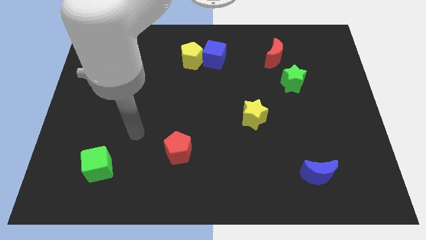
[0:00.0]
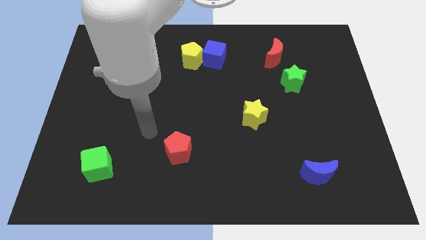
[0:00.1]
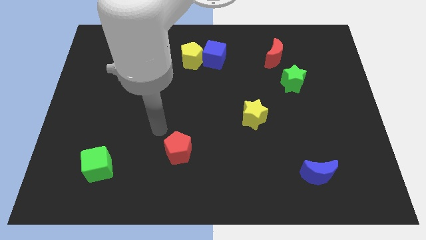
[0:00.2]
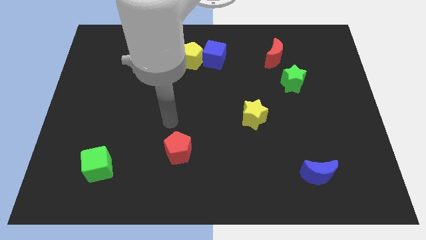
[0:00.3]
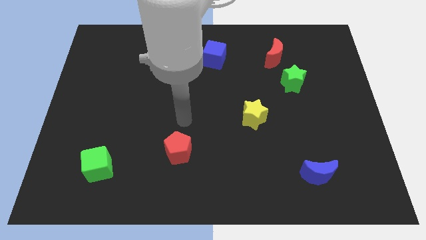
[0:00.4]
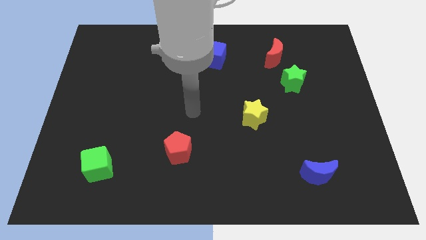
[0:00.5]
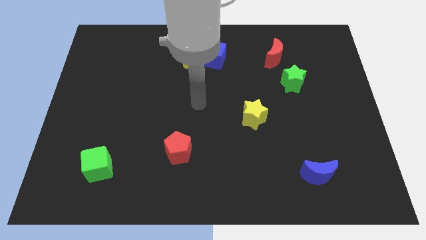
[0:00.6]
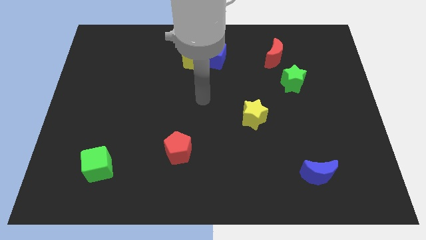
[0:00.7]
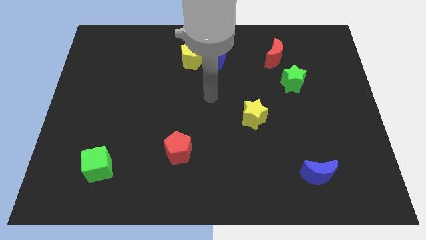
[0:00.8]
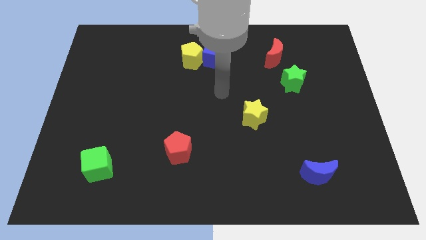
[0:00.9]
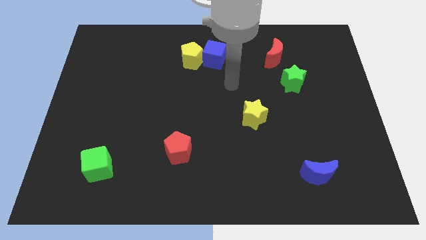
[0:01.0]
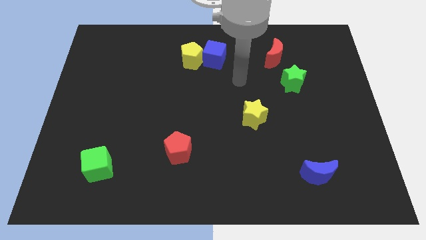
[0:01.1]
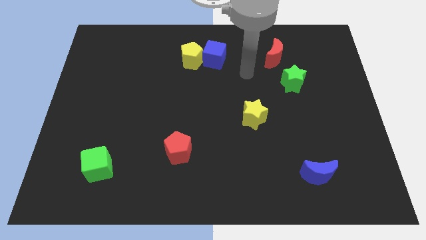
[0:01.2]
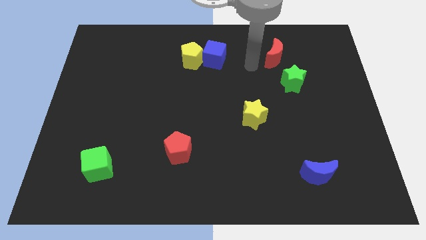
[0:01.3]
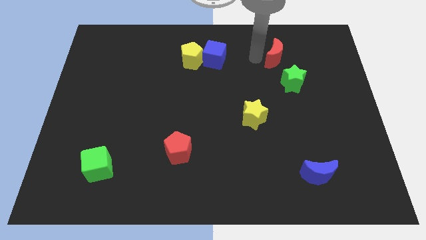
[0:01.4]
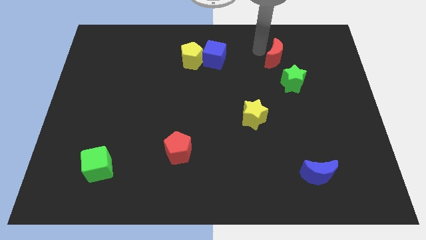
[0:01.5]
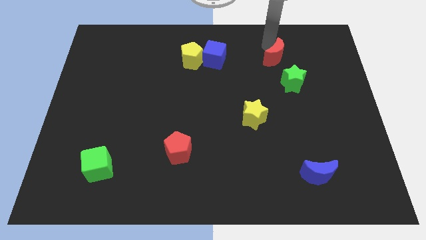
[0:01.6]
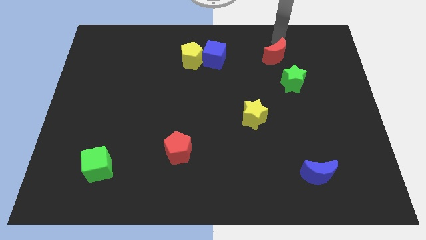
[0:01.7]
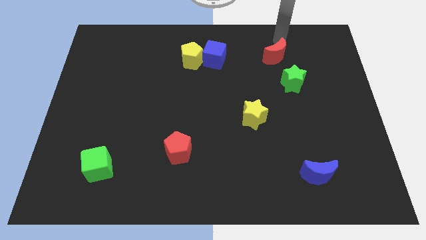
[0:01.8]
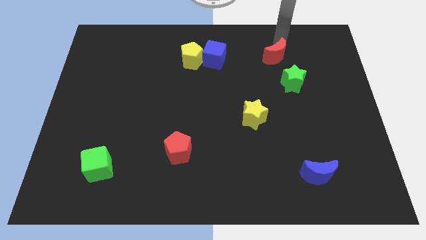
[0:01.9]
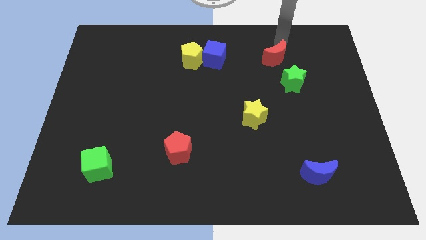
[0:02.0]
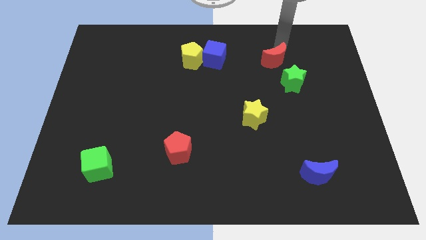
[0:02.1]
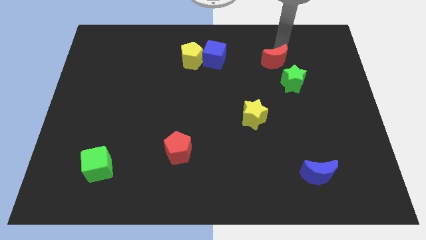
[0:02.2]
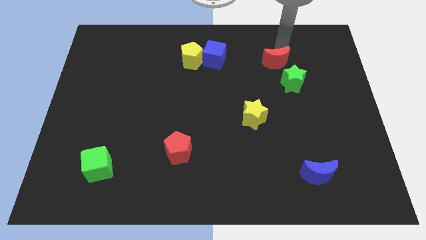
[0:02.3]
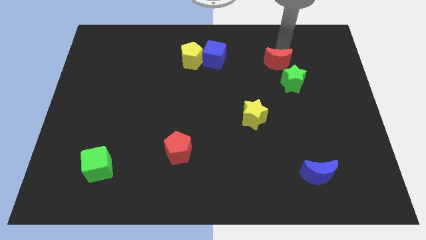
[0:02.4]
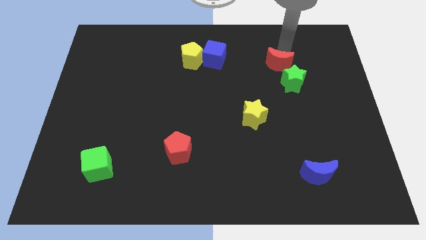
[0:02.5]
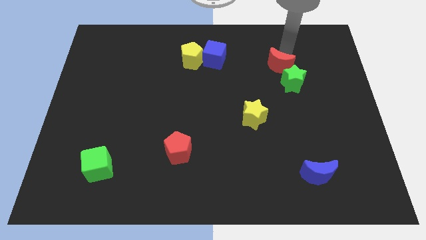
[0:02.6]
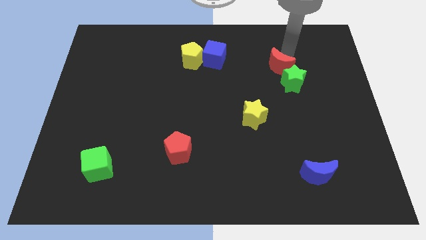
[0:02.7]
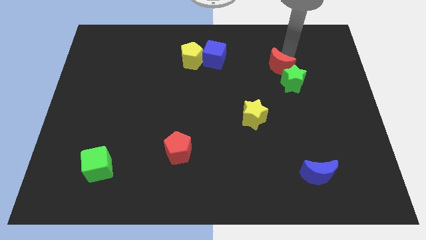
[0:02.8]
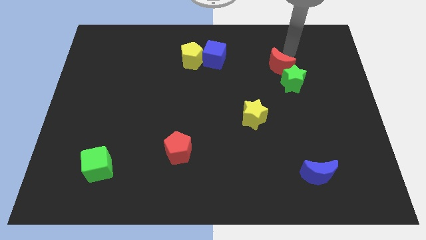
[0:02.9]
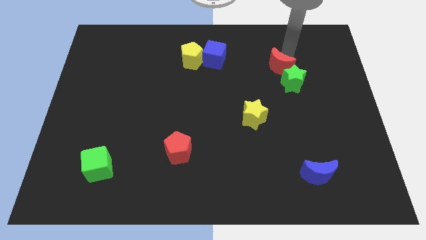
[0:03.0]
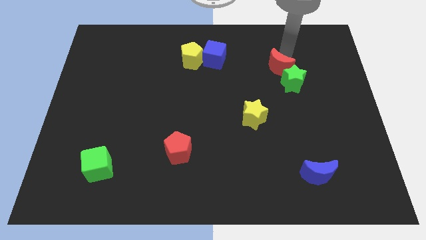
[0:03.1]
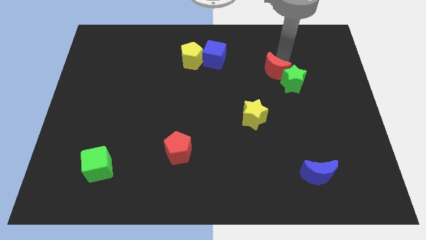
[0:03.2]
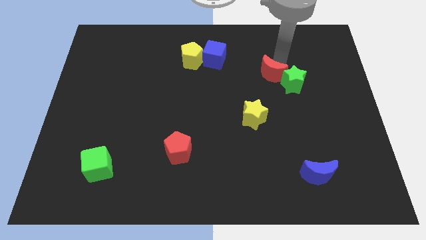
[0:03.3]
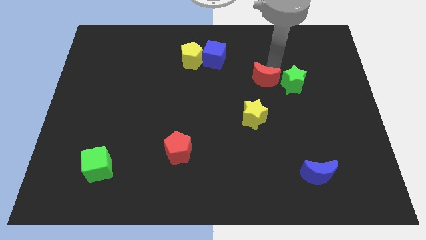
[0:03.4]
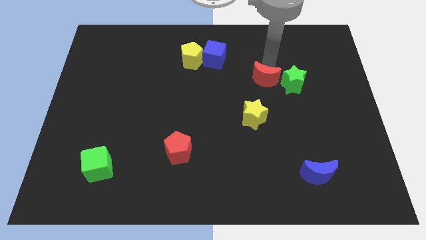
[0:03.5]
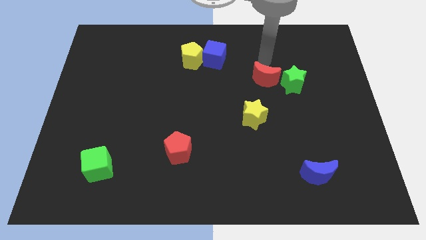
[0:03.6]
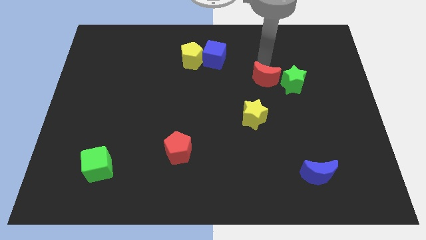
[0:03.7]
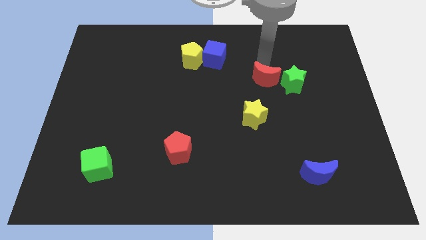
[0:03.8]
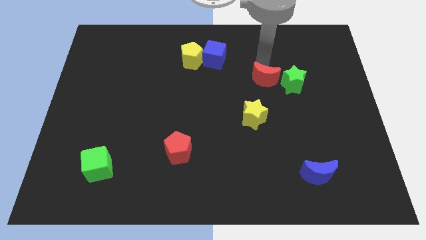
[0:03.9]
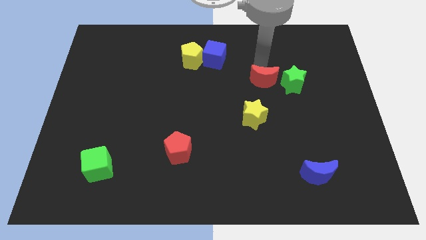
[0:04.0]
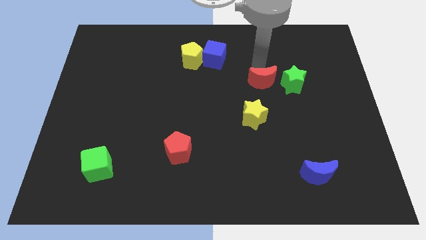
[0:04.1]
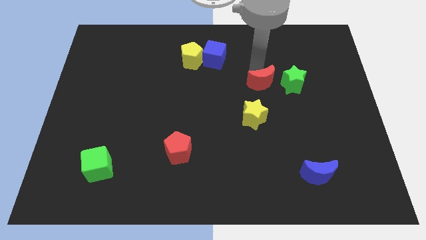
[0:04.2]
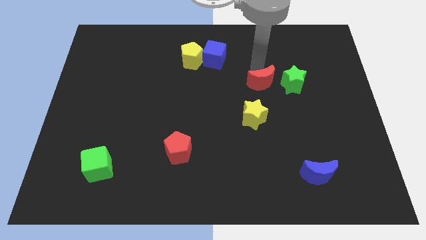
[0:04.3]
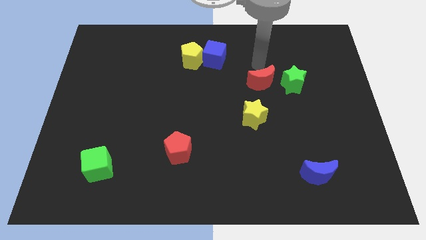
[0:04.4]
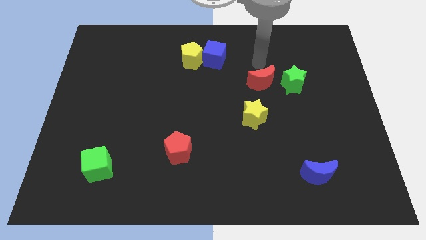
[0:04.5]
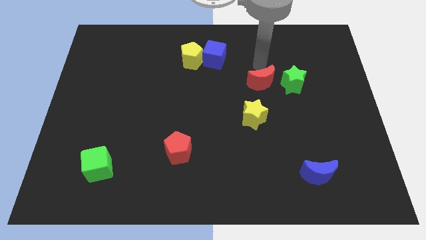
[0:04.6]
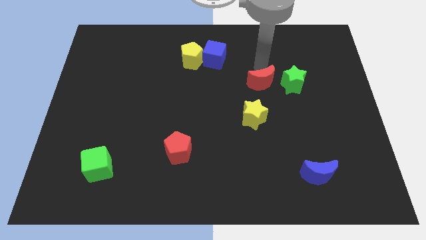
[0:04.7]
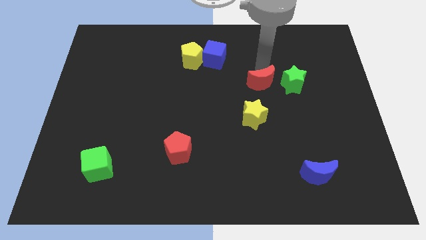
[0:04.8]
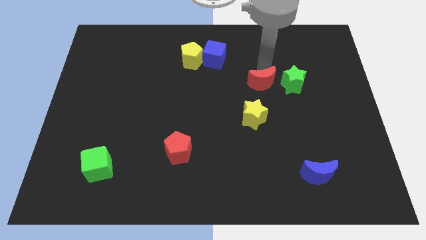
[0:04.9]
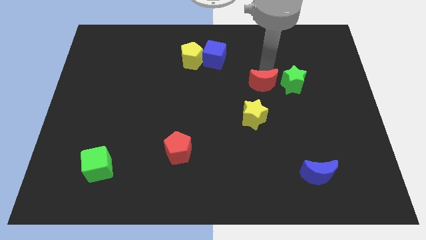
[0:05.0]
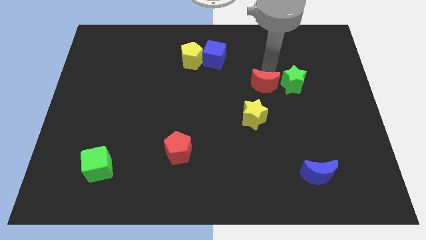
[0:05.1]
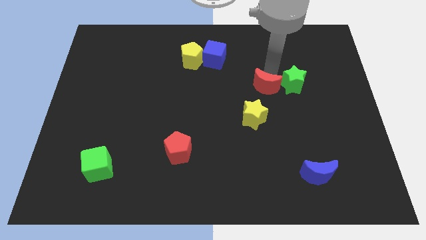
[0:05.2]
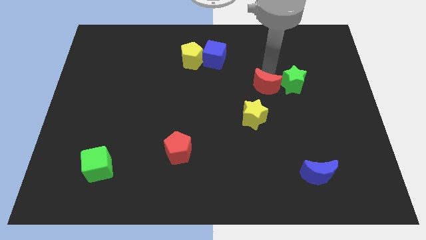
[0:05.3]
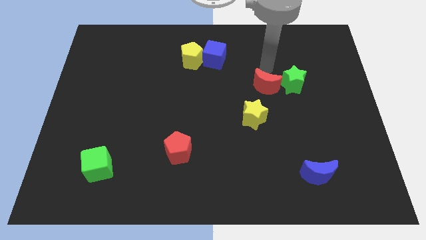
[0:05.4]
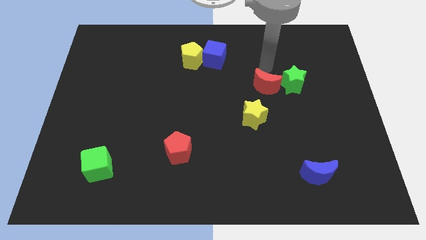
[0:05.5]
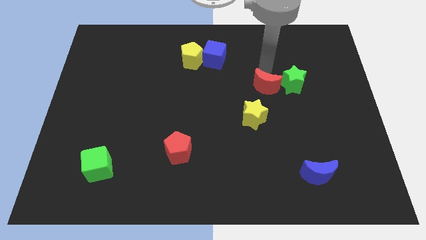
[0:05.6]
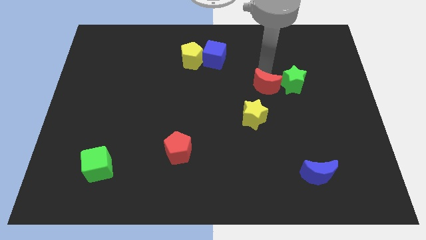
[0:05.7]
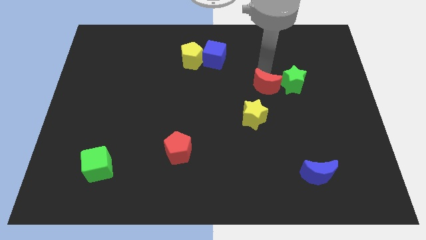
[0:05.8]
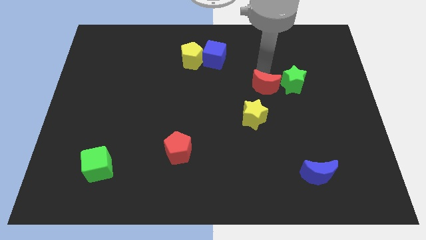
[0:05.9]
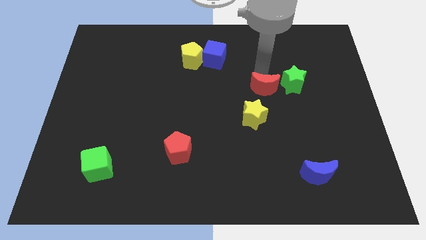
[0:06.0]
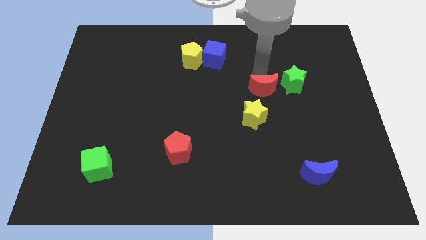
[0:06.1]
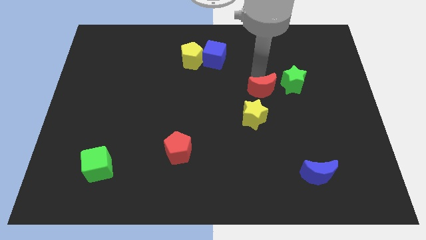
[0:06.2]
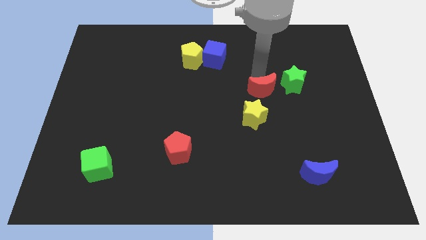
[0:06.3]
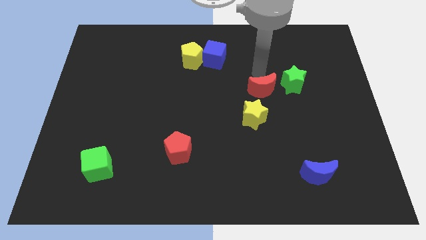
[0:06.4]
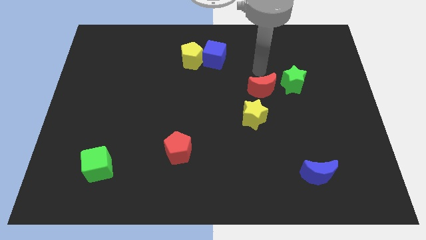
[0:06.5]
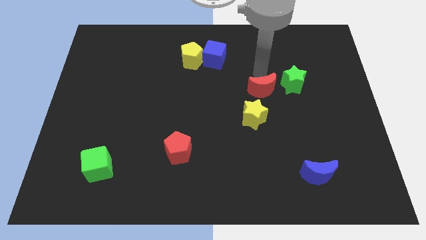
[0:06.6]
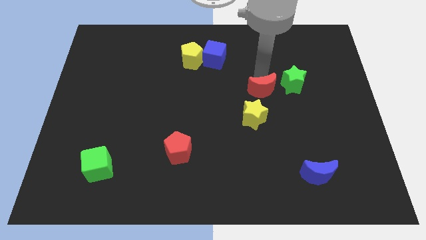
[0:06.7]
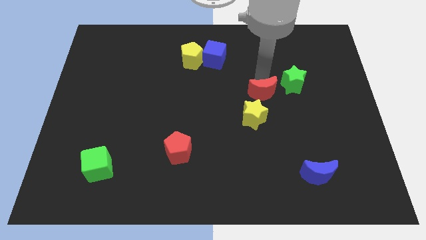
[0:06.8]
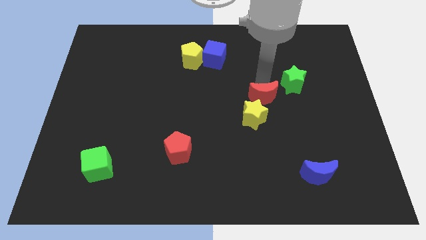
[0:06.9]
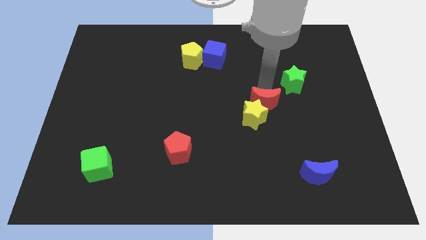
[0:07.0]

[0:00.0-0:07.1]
put the red moon towards the yellow star
